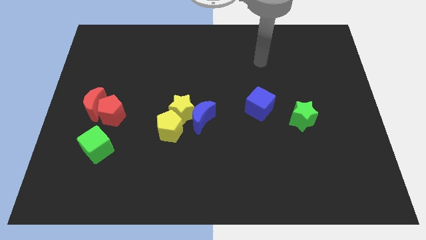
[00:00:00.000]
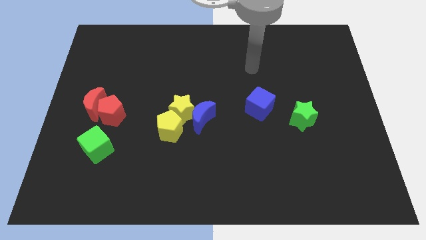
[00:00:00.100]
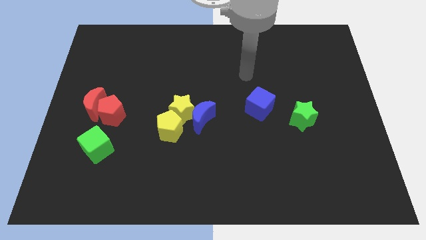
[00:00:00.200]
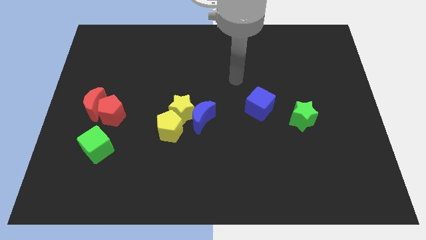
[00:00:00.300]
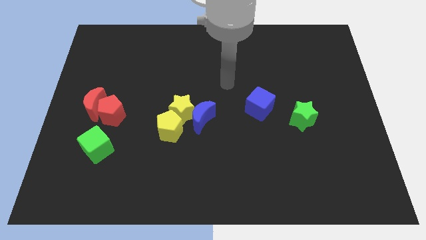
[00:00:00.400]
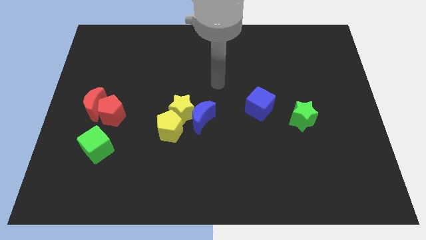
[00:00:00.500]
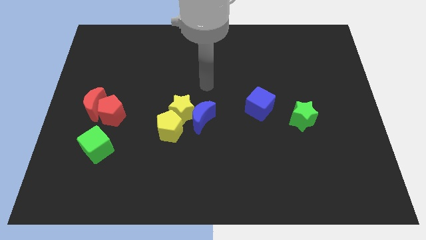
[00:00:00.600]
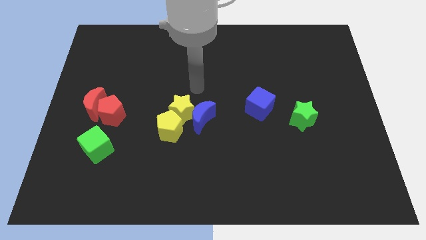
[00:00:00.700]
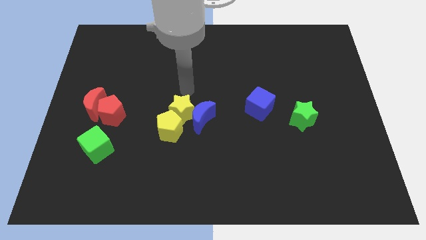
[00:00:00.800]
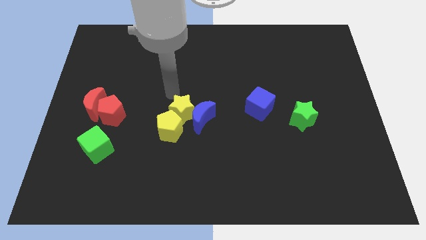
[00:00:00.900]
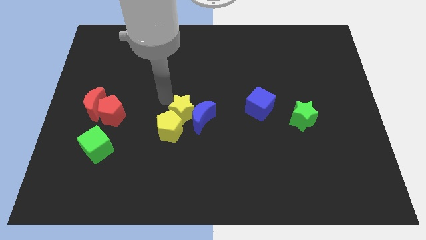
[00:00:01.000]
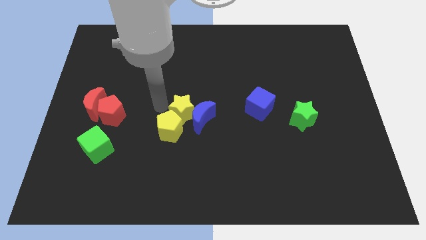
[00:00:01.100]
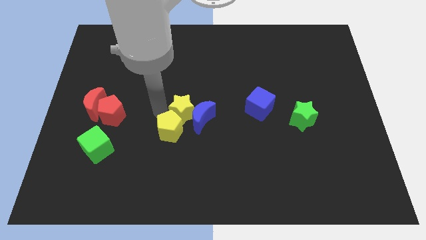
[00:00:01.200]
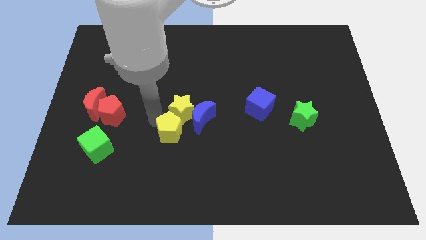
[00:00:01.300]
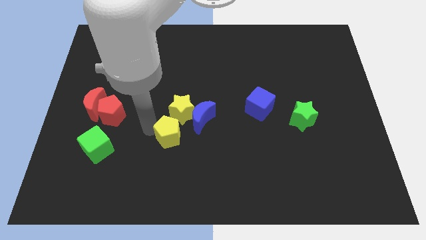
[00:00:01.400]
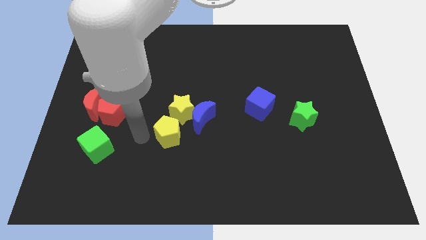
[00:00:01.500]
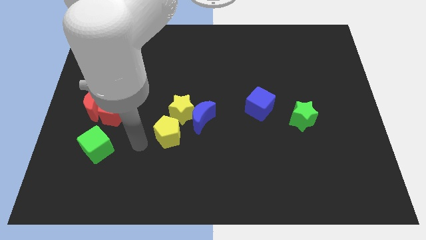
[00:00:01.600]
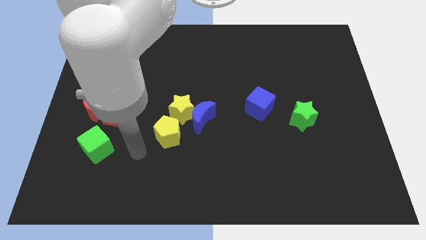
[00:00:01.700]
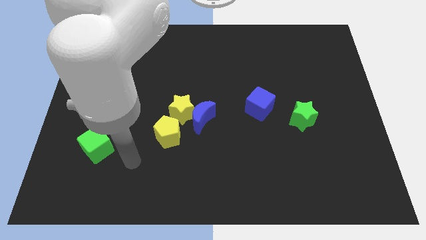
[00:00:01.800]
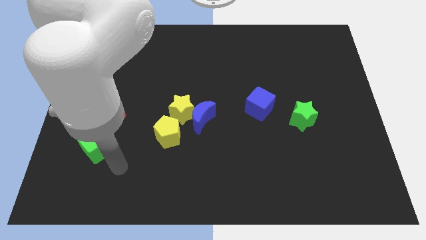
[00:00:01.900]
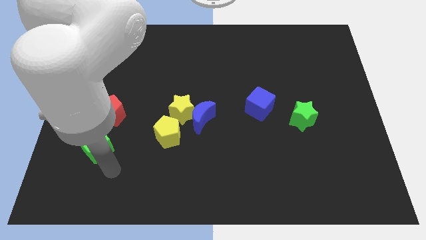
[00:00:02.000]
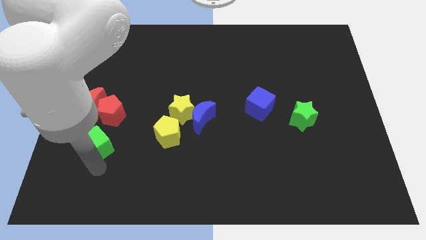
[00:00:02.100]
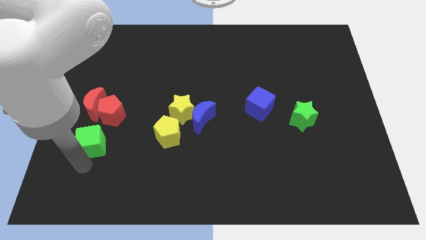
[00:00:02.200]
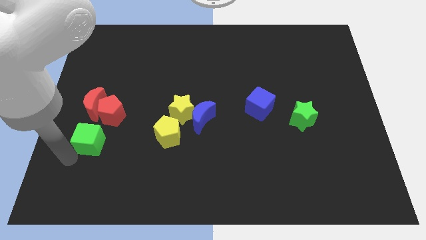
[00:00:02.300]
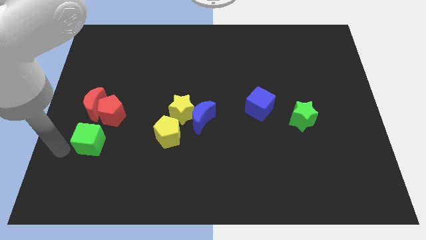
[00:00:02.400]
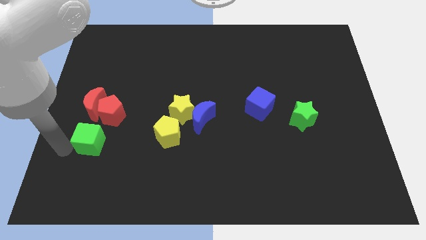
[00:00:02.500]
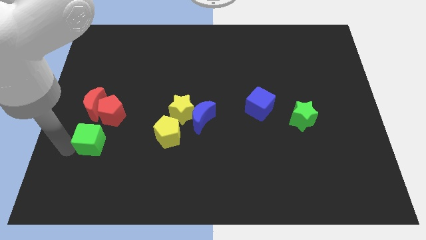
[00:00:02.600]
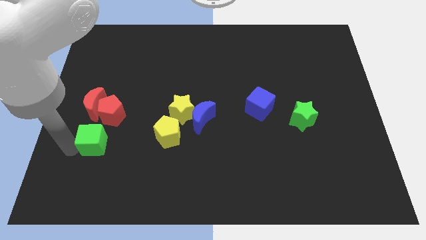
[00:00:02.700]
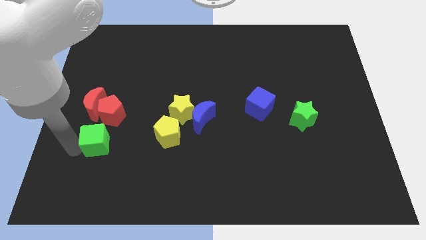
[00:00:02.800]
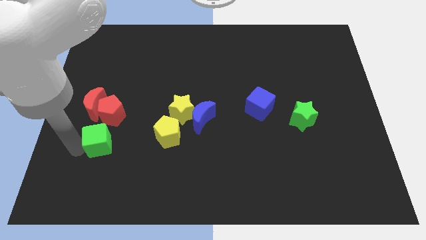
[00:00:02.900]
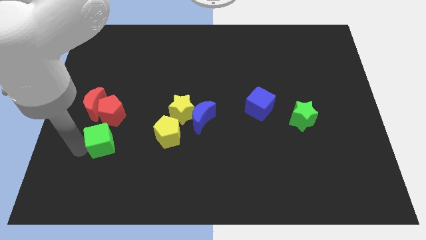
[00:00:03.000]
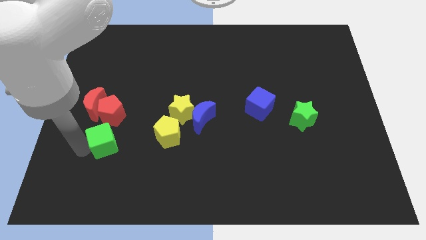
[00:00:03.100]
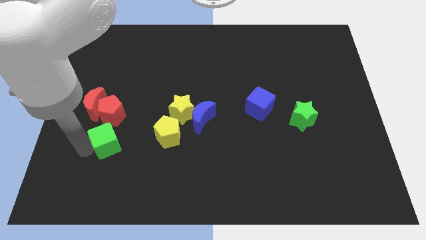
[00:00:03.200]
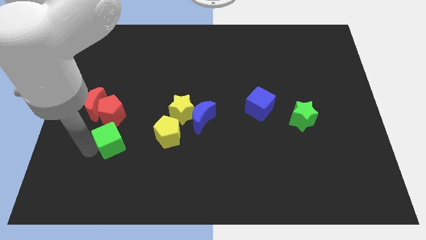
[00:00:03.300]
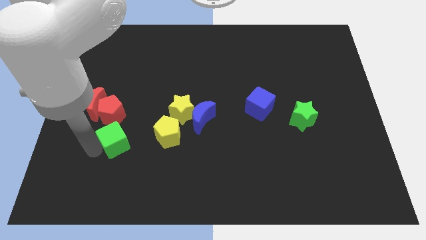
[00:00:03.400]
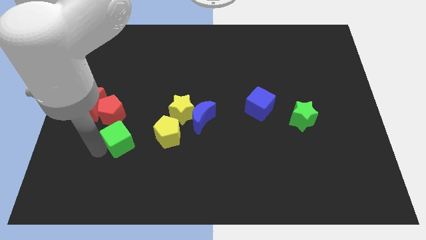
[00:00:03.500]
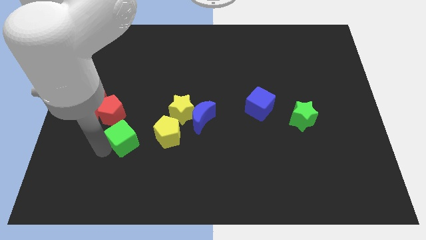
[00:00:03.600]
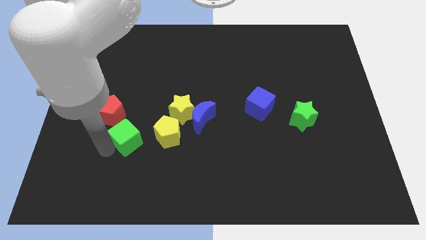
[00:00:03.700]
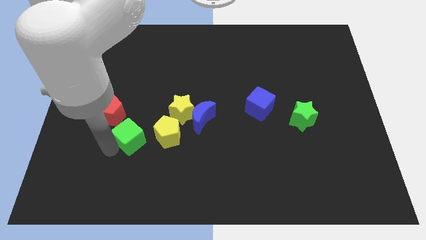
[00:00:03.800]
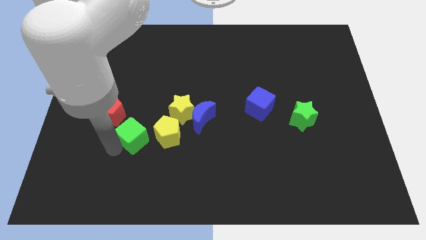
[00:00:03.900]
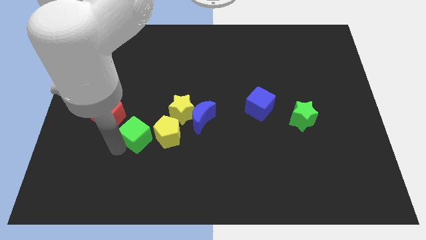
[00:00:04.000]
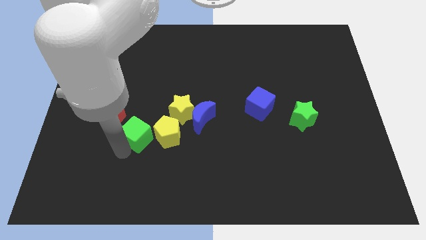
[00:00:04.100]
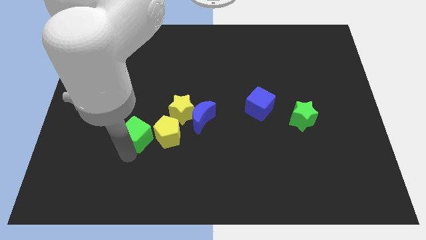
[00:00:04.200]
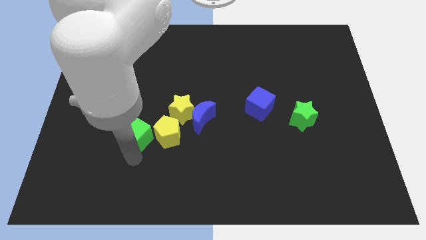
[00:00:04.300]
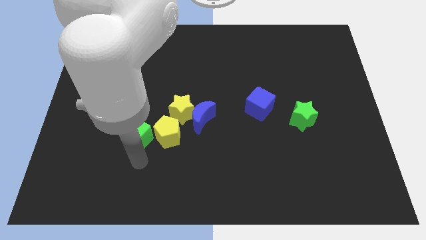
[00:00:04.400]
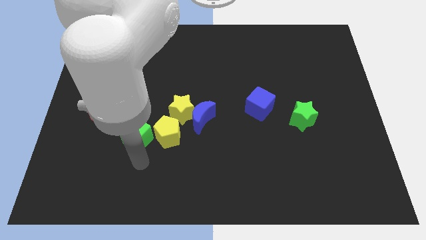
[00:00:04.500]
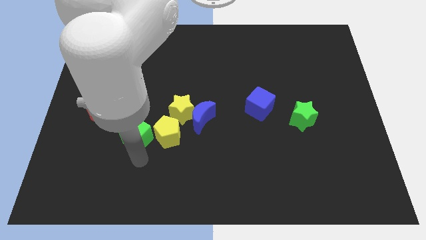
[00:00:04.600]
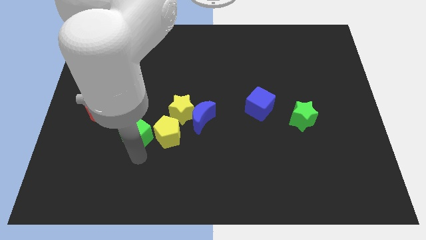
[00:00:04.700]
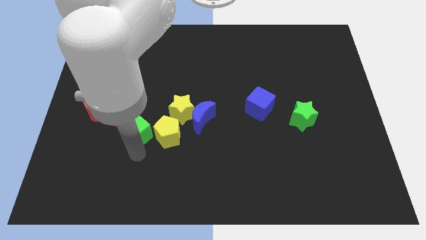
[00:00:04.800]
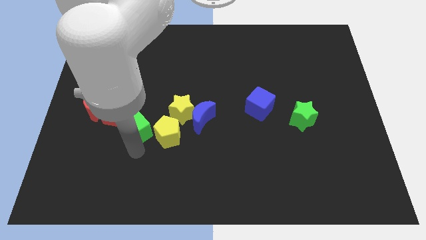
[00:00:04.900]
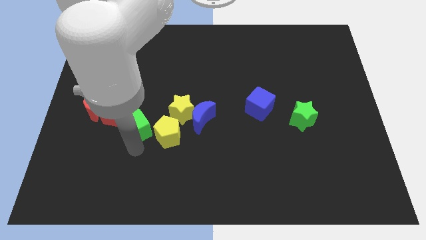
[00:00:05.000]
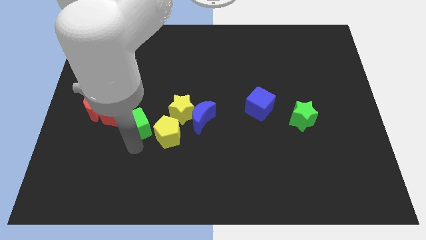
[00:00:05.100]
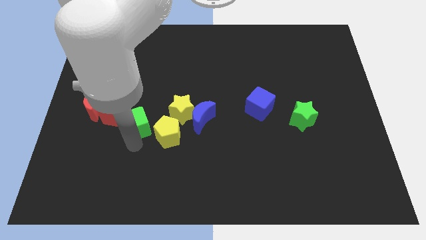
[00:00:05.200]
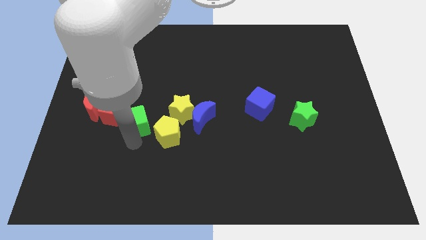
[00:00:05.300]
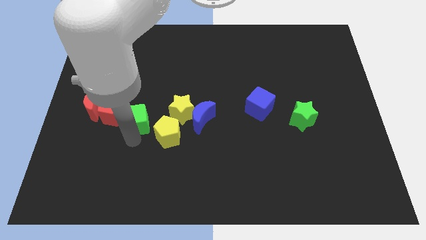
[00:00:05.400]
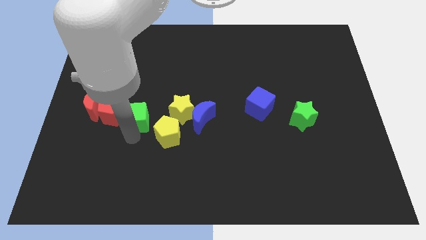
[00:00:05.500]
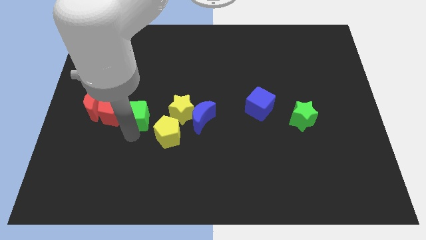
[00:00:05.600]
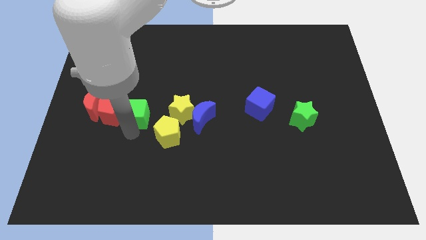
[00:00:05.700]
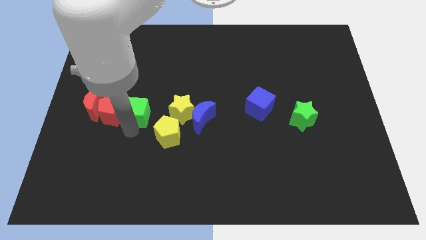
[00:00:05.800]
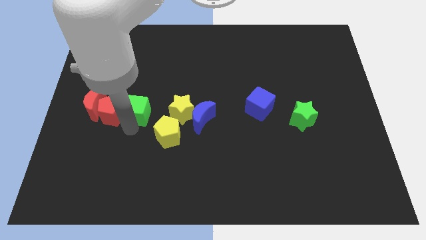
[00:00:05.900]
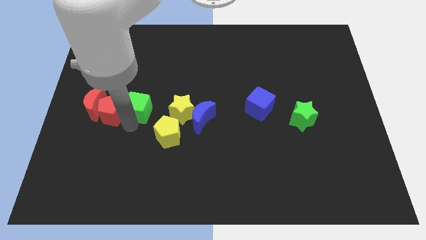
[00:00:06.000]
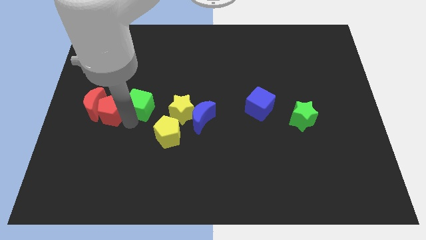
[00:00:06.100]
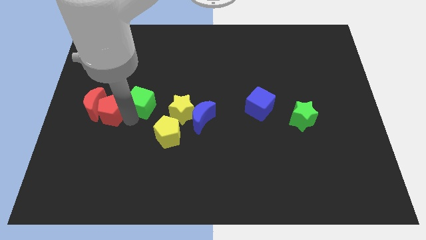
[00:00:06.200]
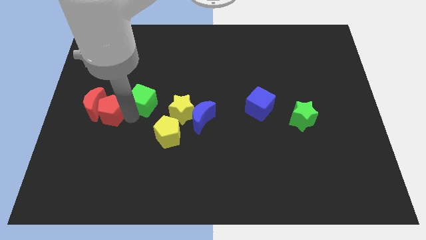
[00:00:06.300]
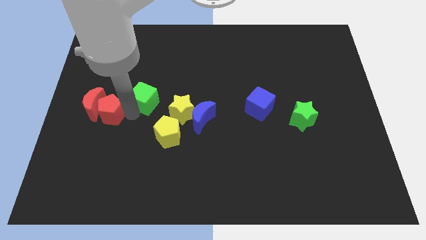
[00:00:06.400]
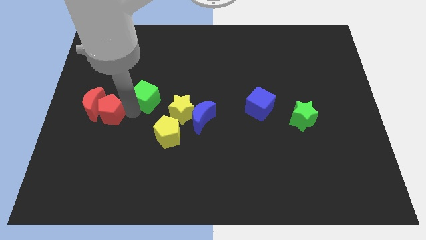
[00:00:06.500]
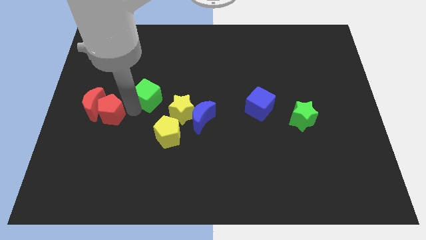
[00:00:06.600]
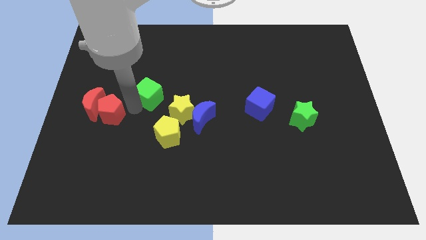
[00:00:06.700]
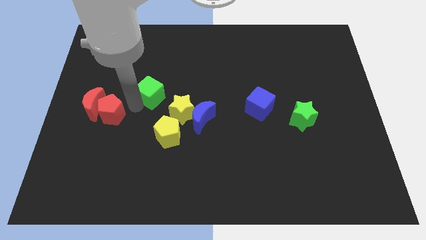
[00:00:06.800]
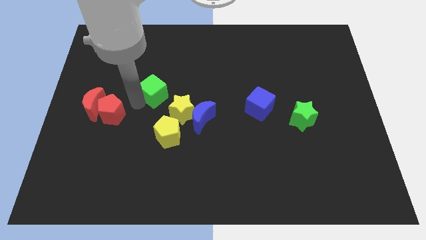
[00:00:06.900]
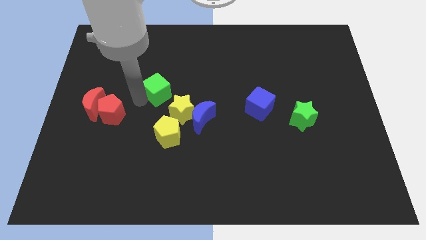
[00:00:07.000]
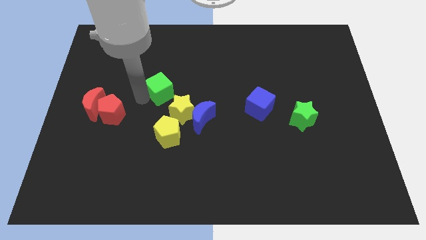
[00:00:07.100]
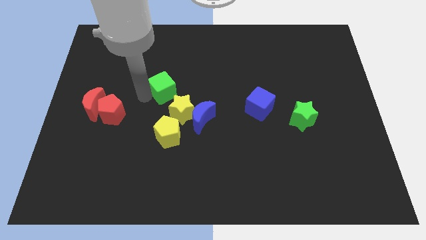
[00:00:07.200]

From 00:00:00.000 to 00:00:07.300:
move the green cube to the top of the yellow star
